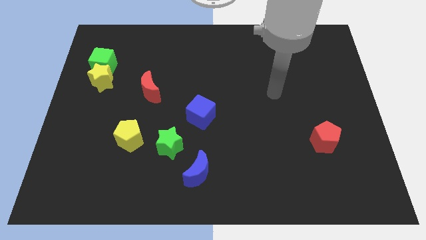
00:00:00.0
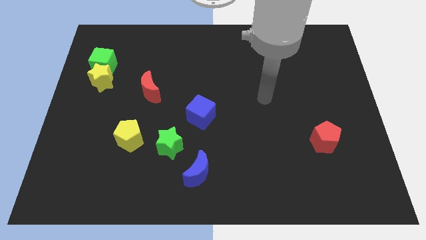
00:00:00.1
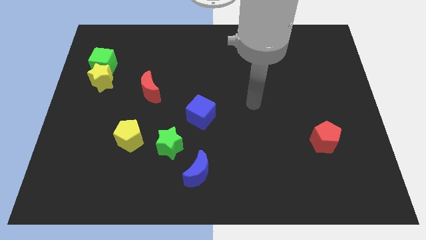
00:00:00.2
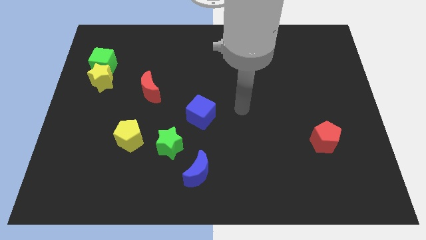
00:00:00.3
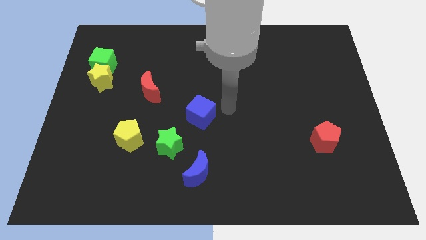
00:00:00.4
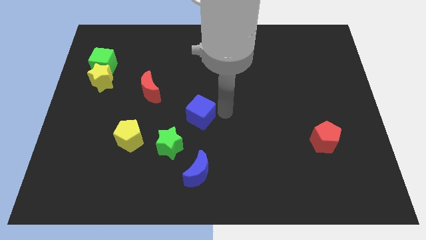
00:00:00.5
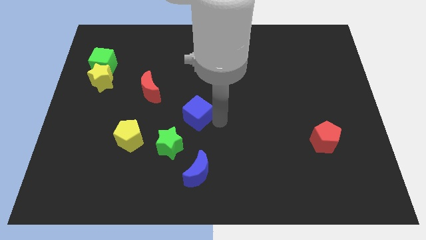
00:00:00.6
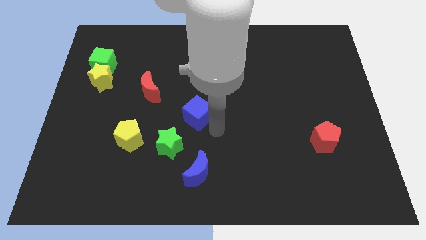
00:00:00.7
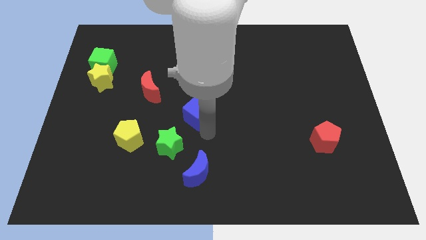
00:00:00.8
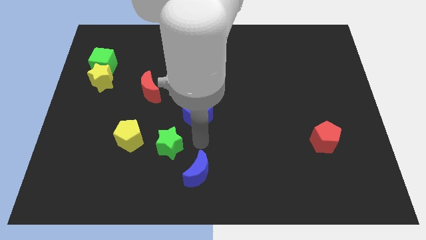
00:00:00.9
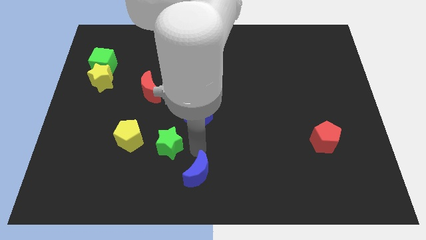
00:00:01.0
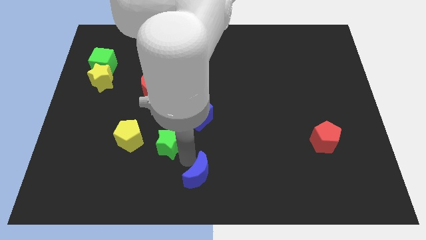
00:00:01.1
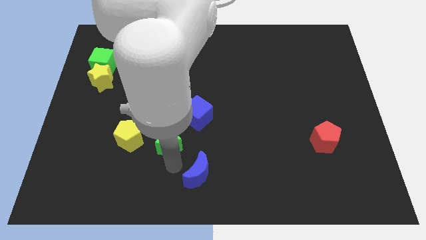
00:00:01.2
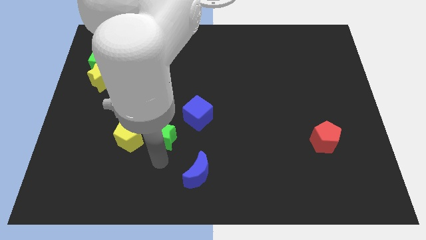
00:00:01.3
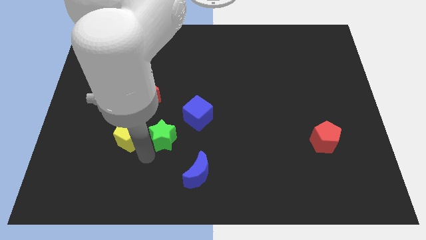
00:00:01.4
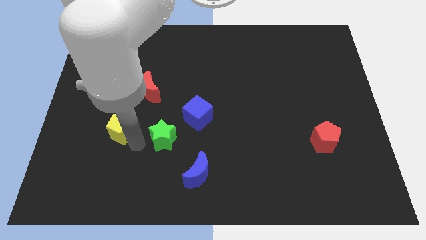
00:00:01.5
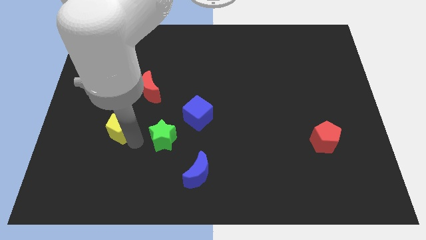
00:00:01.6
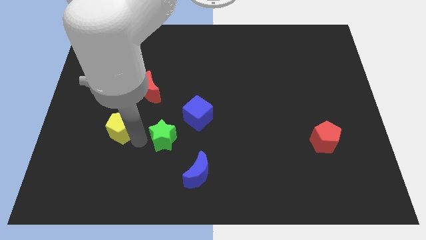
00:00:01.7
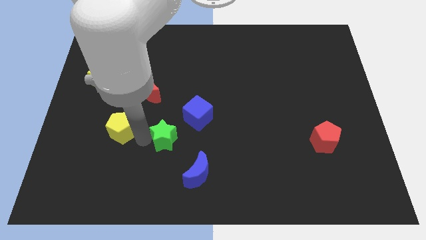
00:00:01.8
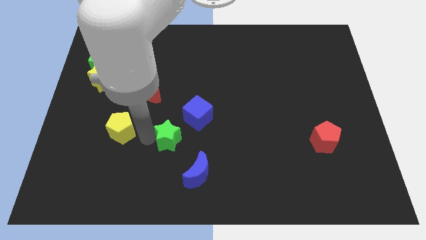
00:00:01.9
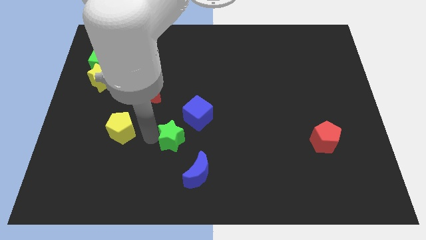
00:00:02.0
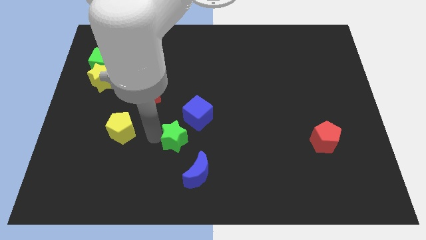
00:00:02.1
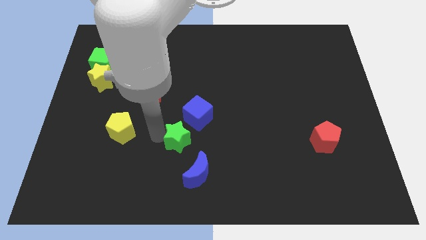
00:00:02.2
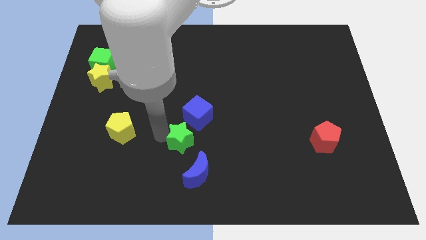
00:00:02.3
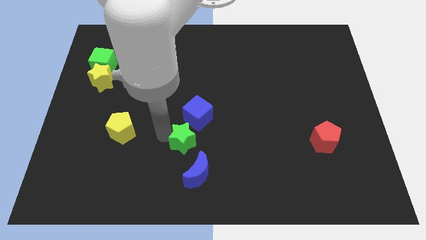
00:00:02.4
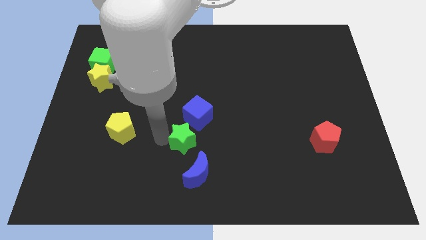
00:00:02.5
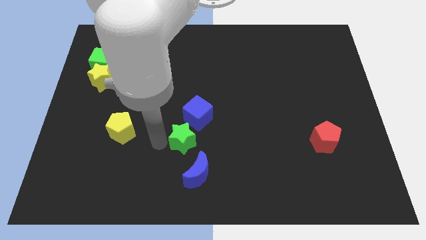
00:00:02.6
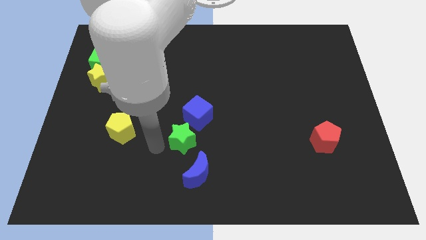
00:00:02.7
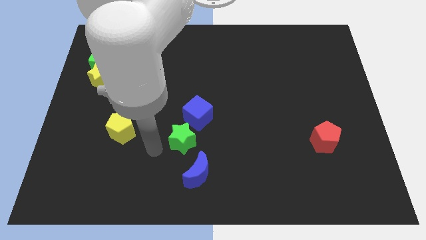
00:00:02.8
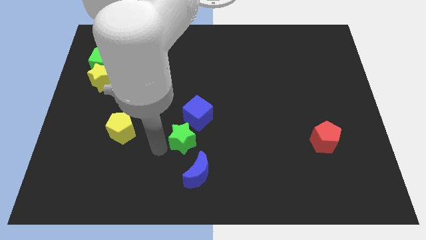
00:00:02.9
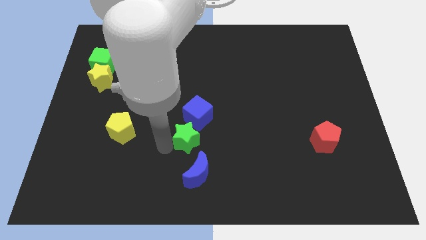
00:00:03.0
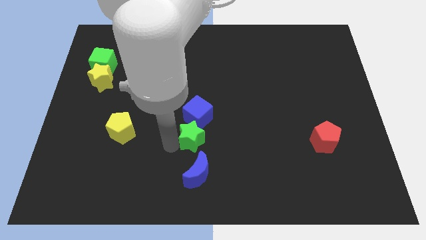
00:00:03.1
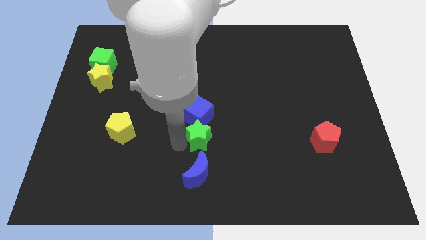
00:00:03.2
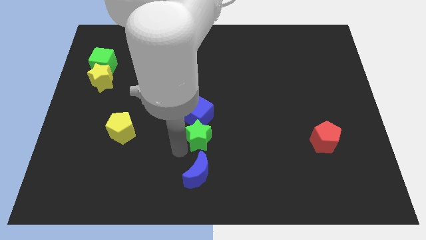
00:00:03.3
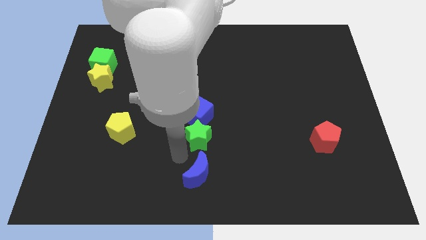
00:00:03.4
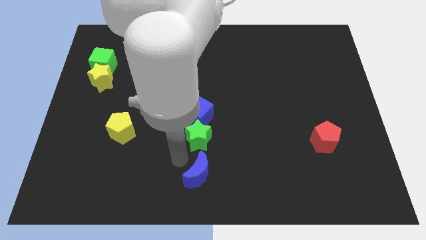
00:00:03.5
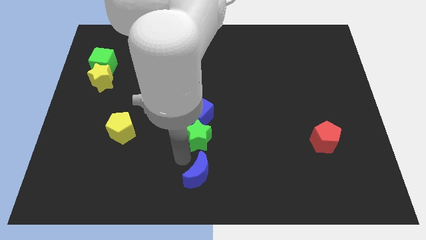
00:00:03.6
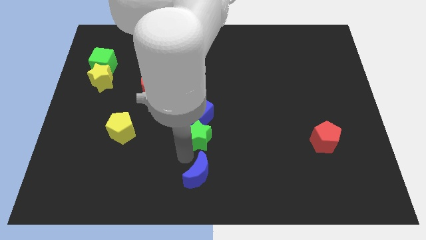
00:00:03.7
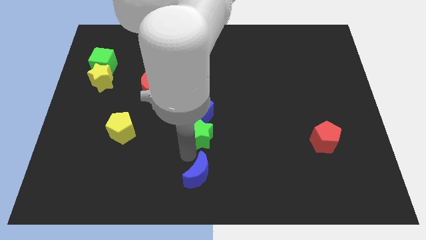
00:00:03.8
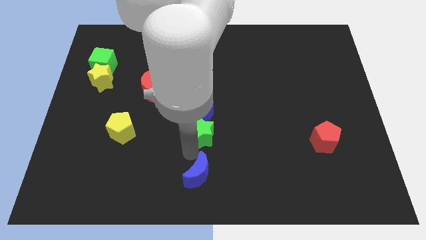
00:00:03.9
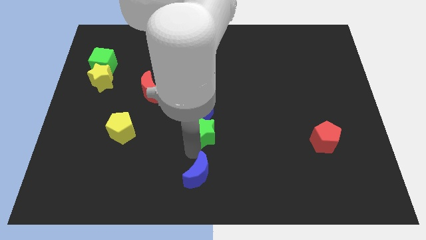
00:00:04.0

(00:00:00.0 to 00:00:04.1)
slide the green star a bit up and to the right

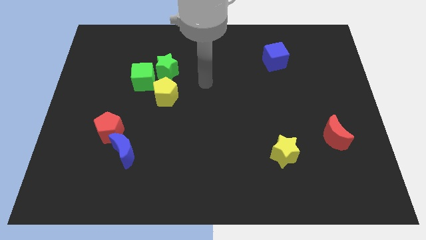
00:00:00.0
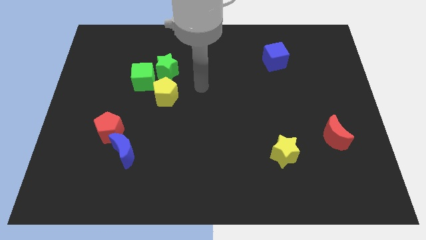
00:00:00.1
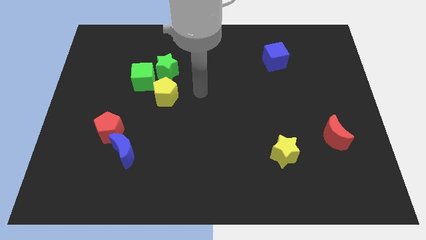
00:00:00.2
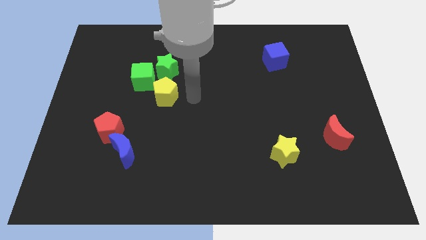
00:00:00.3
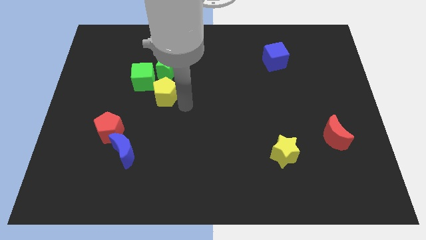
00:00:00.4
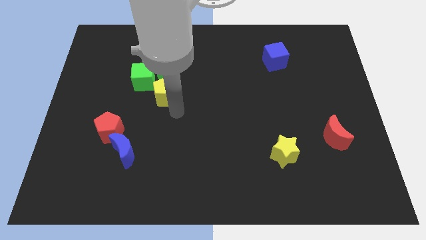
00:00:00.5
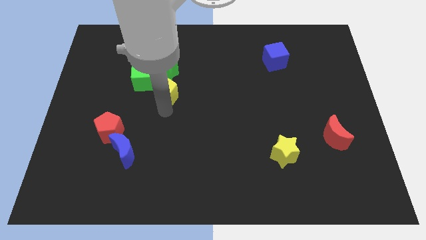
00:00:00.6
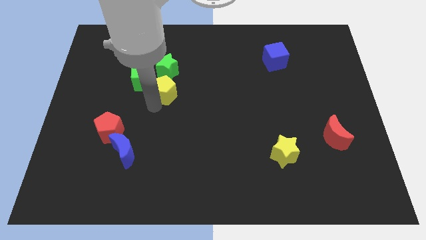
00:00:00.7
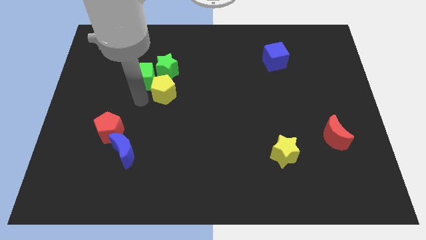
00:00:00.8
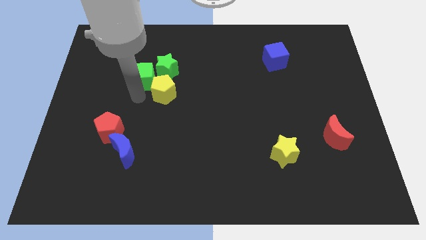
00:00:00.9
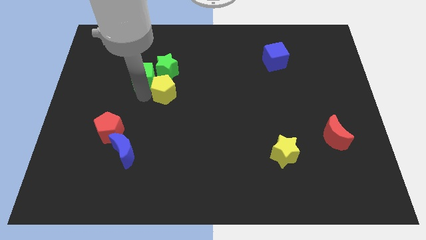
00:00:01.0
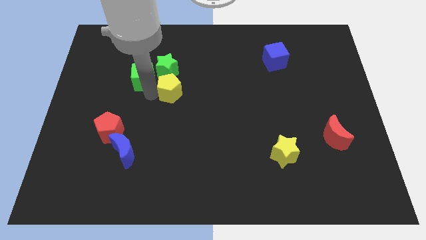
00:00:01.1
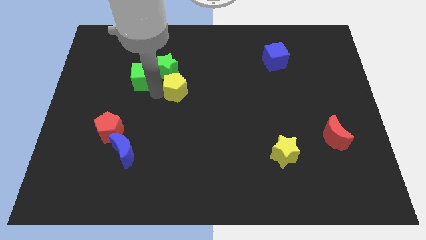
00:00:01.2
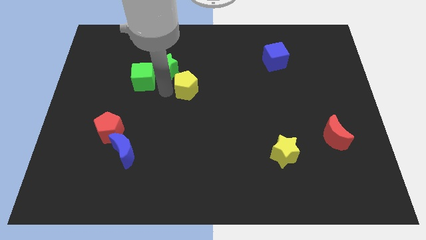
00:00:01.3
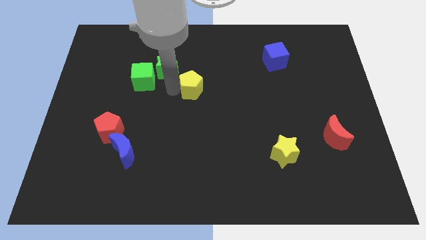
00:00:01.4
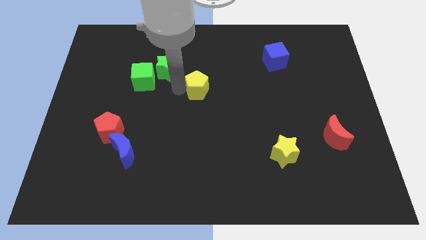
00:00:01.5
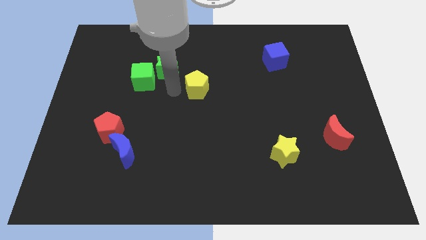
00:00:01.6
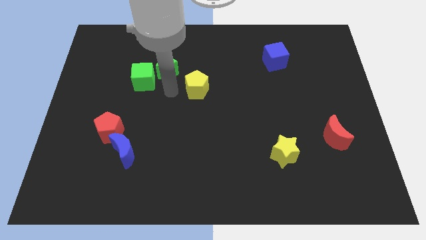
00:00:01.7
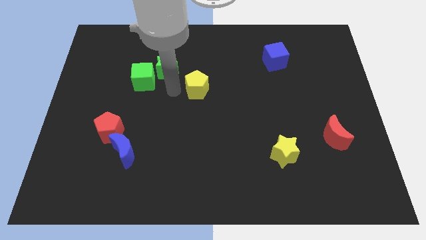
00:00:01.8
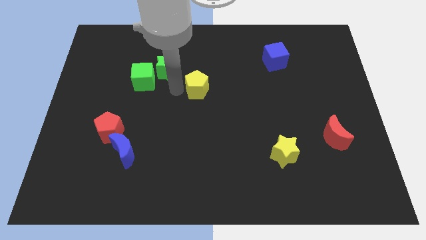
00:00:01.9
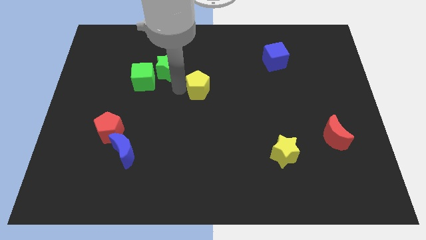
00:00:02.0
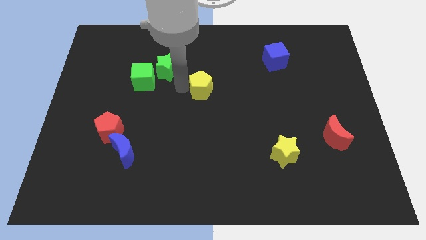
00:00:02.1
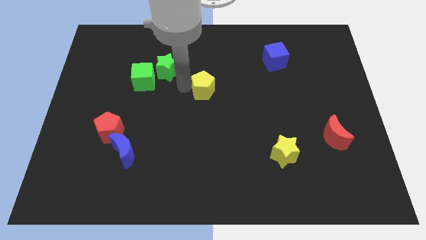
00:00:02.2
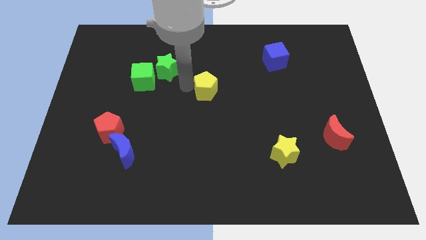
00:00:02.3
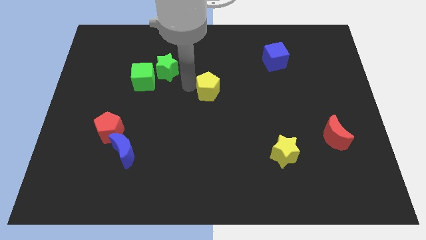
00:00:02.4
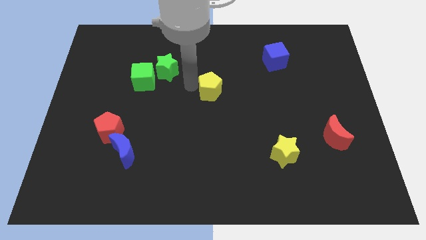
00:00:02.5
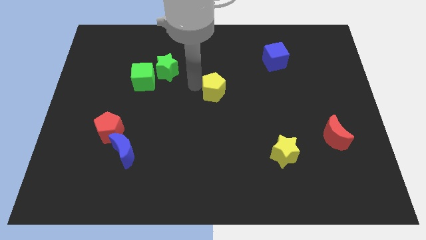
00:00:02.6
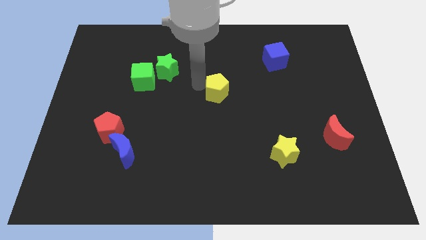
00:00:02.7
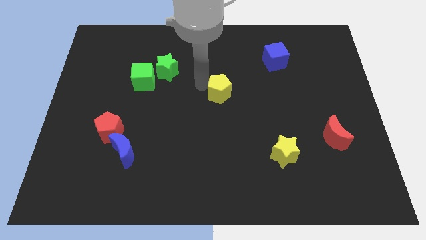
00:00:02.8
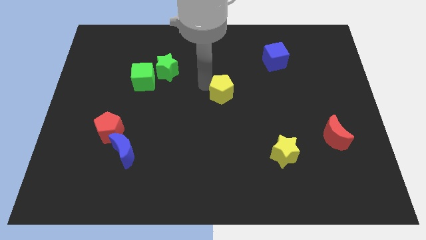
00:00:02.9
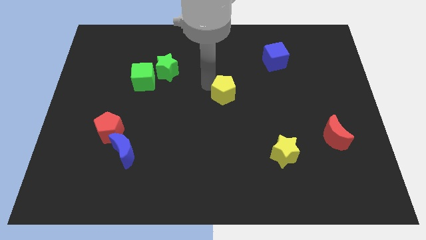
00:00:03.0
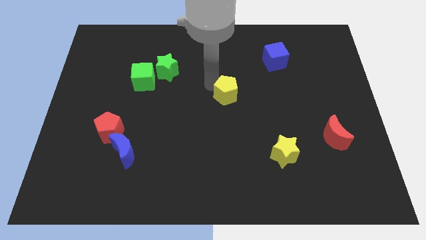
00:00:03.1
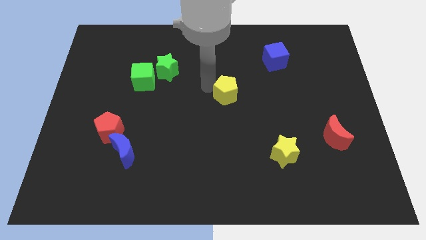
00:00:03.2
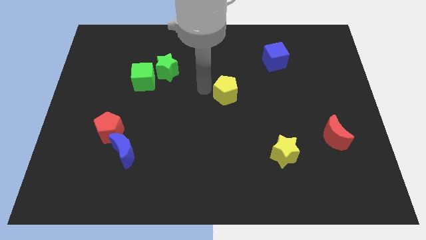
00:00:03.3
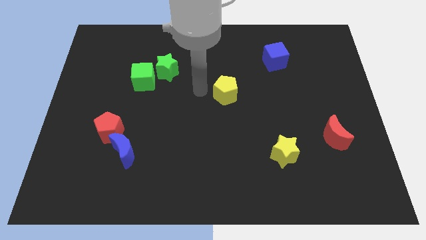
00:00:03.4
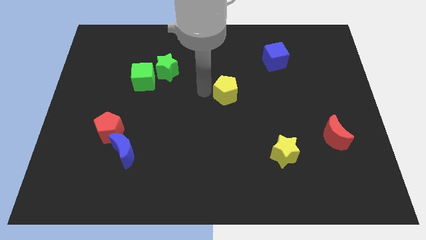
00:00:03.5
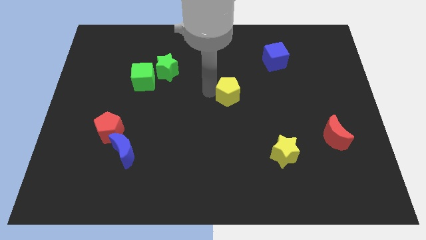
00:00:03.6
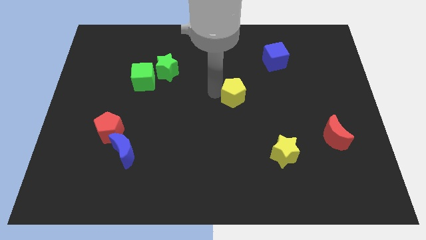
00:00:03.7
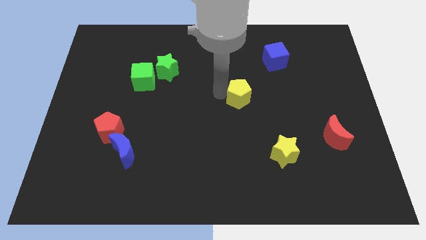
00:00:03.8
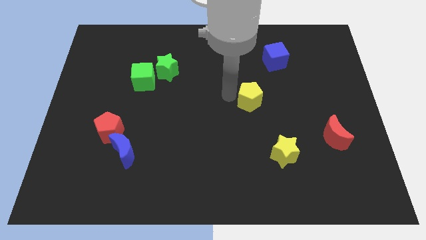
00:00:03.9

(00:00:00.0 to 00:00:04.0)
slide the yellow pentagon to the right
